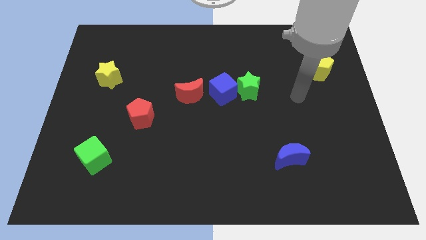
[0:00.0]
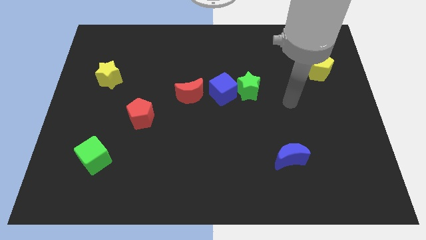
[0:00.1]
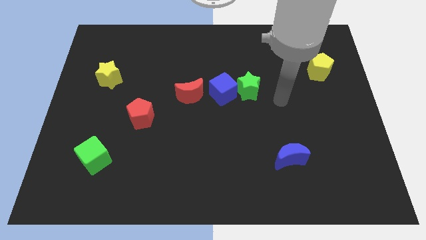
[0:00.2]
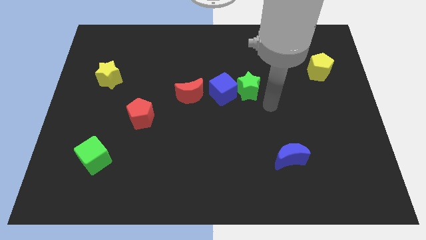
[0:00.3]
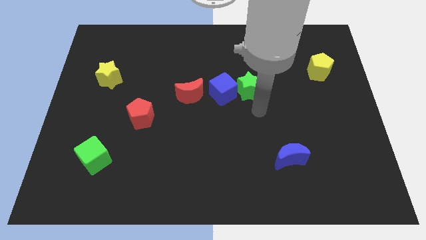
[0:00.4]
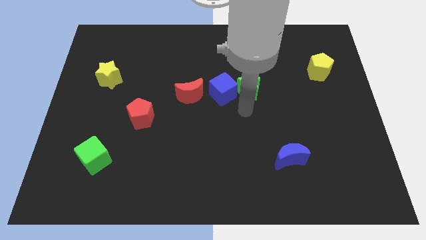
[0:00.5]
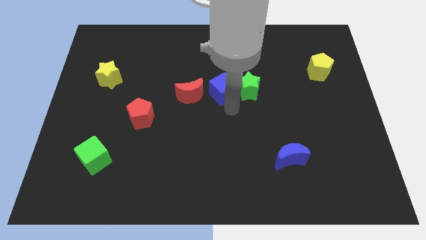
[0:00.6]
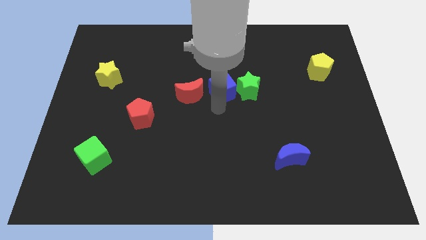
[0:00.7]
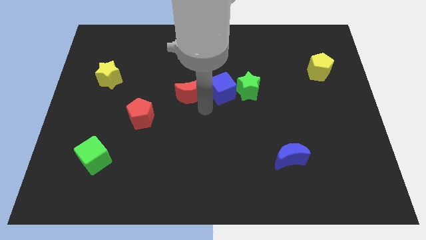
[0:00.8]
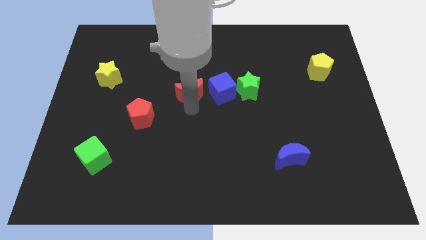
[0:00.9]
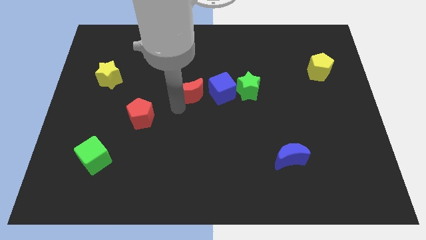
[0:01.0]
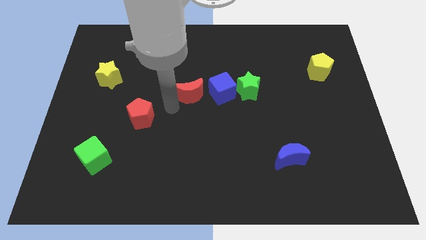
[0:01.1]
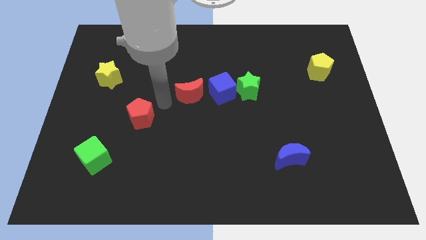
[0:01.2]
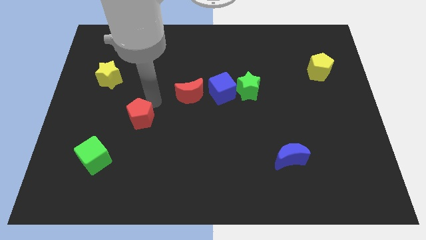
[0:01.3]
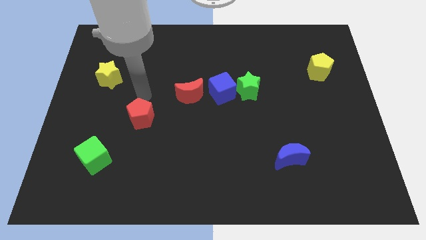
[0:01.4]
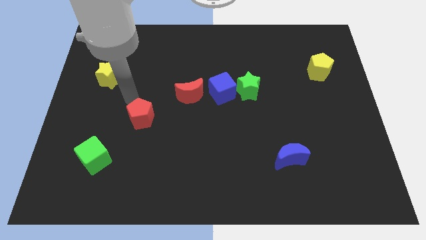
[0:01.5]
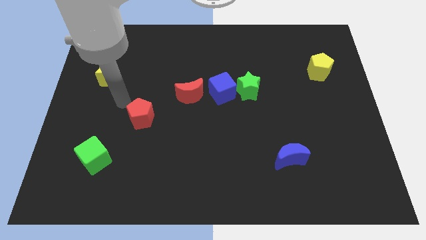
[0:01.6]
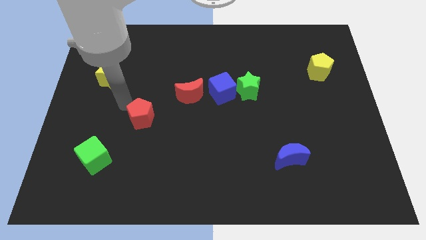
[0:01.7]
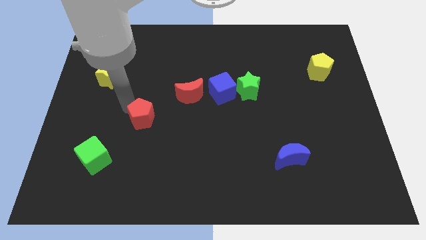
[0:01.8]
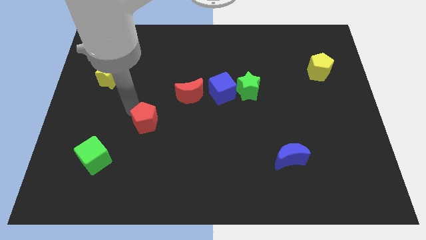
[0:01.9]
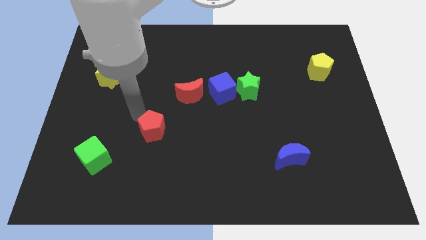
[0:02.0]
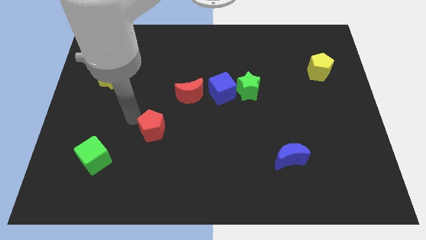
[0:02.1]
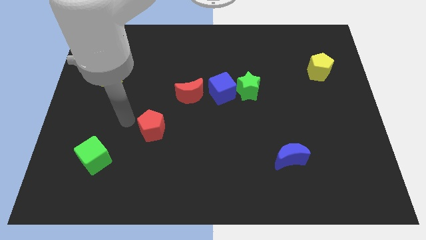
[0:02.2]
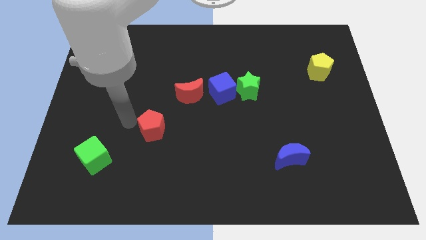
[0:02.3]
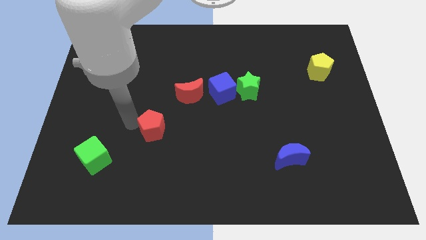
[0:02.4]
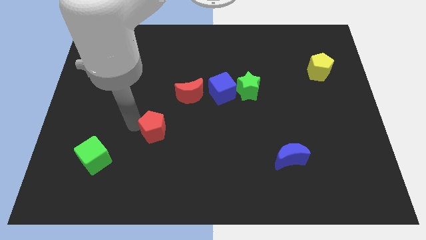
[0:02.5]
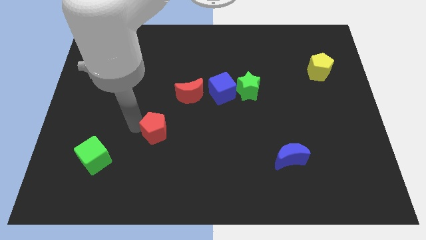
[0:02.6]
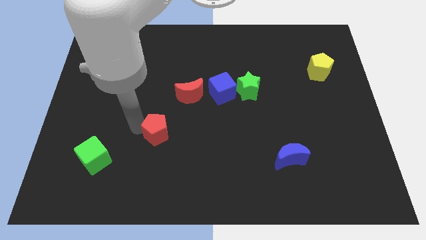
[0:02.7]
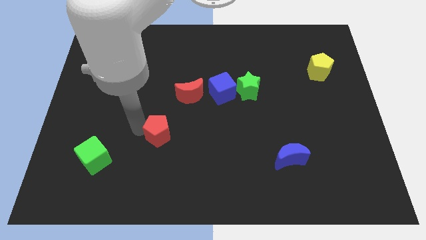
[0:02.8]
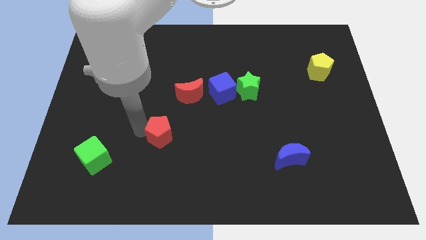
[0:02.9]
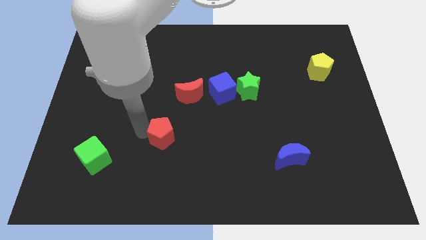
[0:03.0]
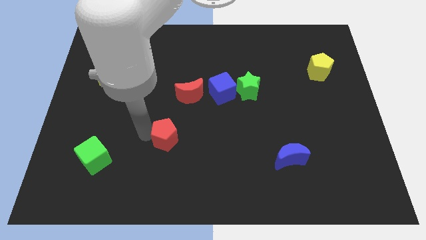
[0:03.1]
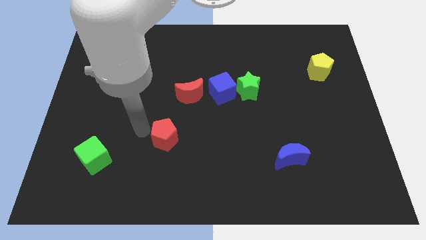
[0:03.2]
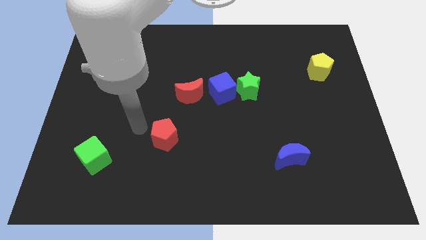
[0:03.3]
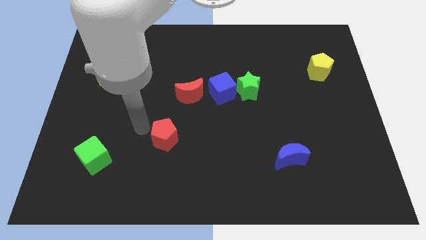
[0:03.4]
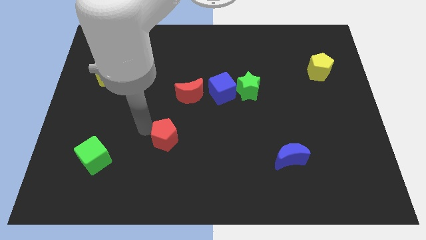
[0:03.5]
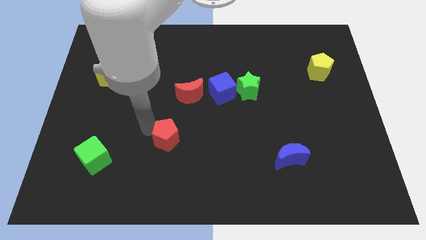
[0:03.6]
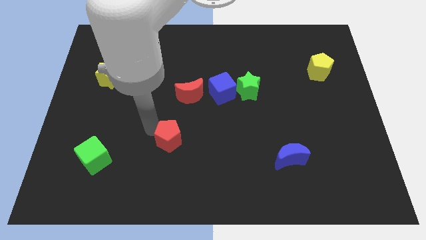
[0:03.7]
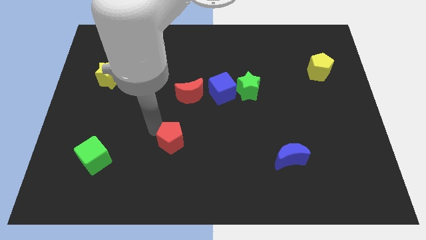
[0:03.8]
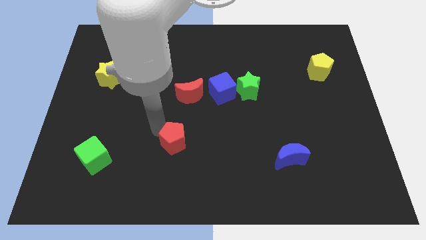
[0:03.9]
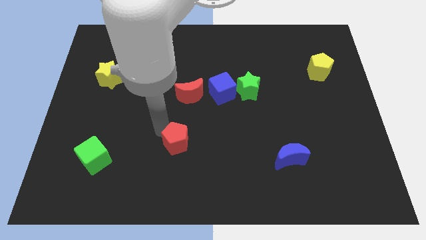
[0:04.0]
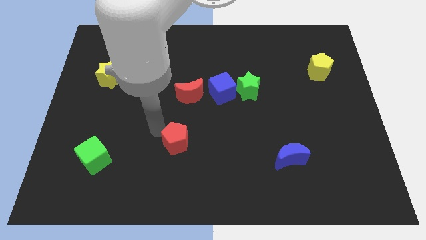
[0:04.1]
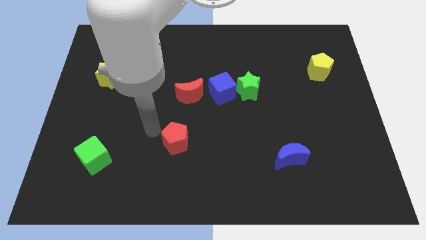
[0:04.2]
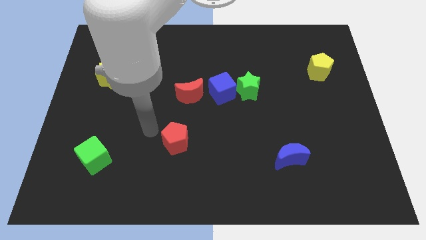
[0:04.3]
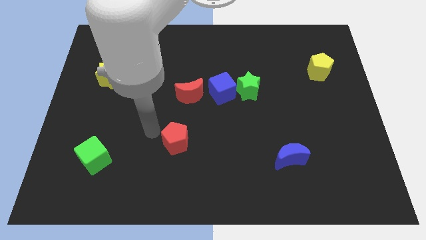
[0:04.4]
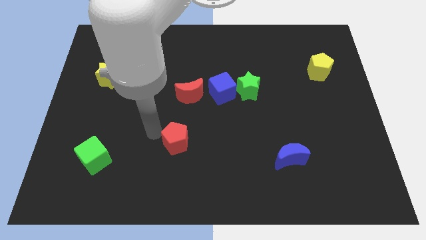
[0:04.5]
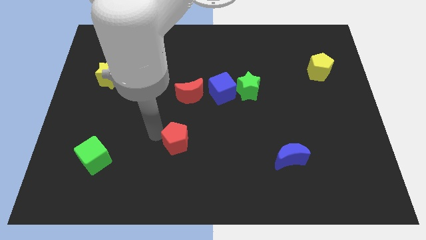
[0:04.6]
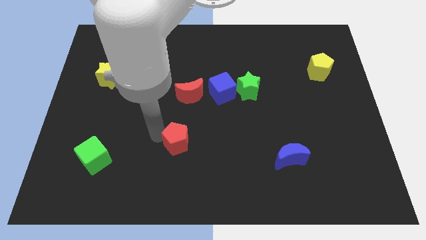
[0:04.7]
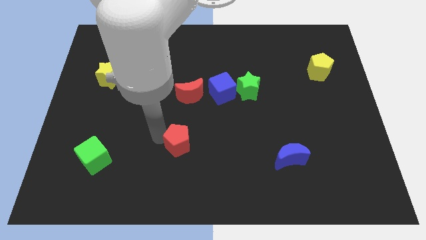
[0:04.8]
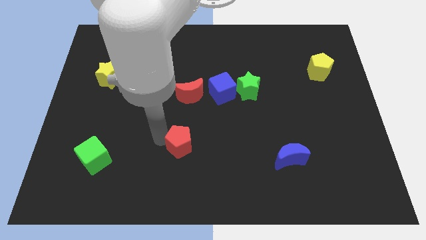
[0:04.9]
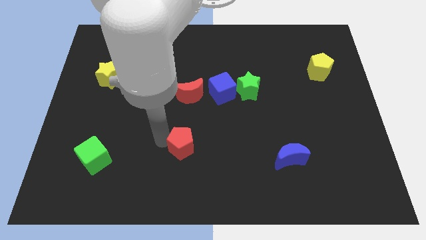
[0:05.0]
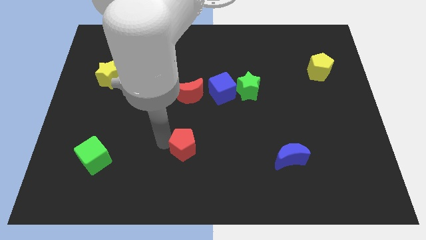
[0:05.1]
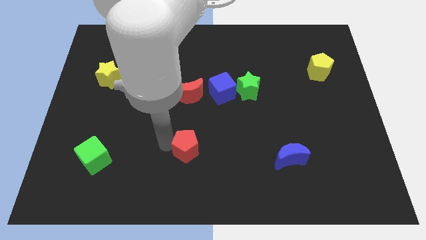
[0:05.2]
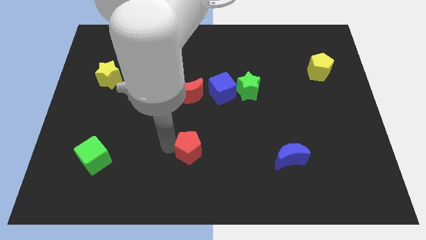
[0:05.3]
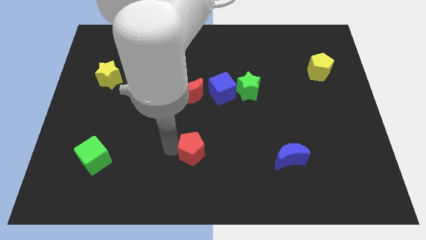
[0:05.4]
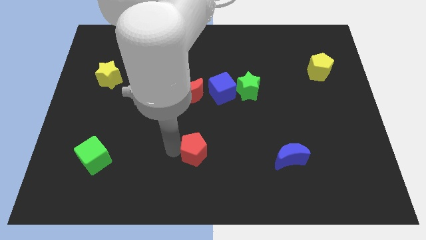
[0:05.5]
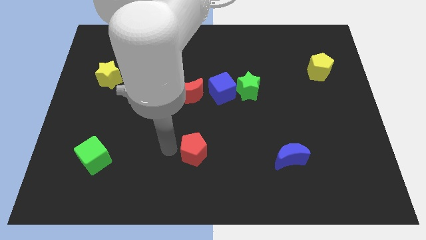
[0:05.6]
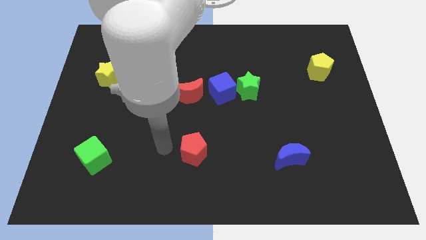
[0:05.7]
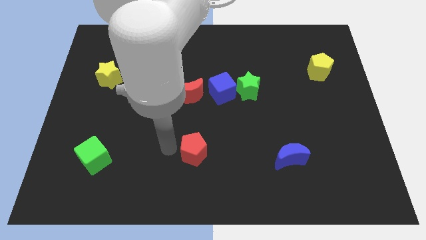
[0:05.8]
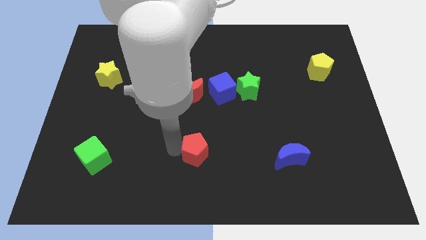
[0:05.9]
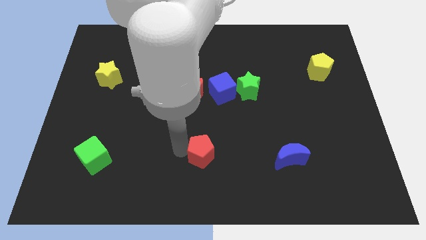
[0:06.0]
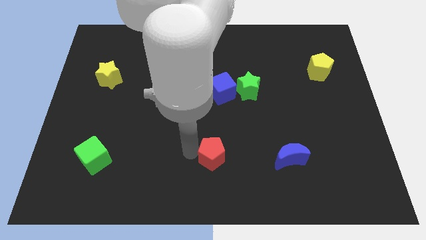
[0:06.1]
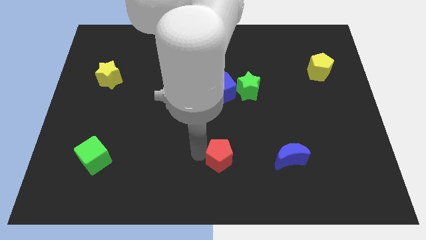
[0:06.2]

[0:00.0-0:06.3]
push the red pentagon to the left side of the blue moon

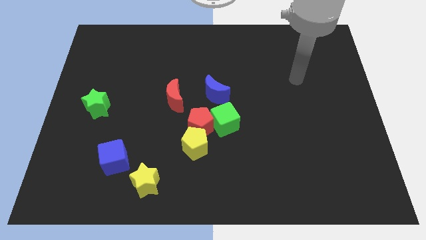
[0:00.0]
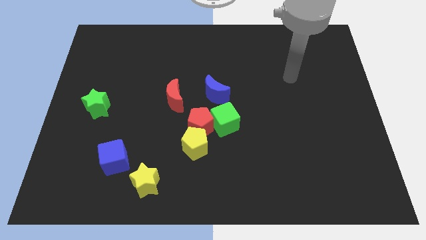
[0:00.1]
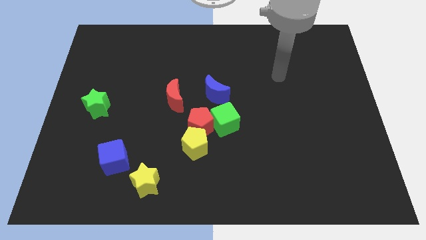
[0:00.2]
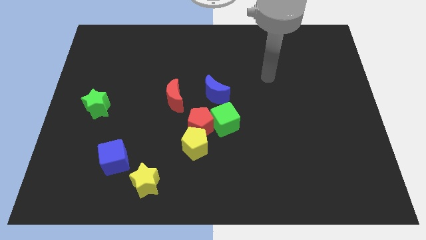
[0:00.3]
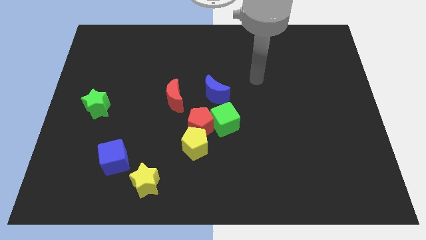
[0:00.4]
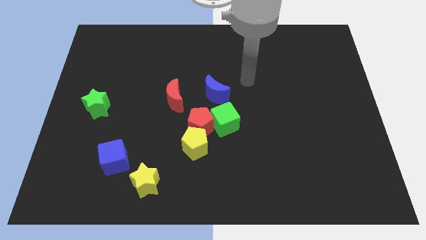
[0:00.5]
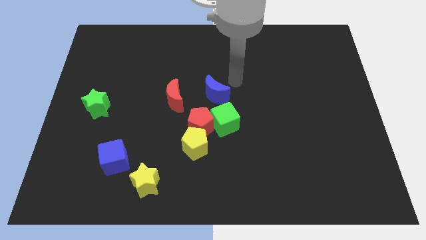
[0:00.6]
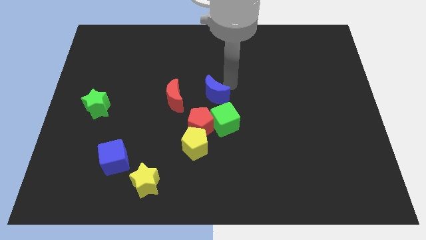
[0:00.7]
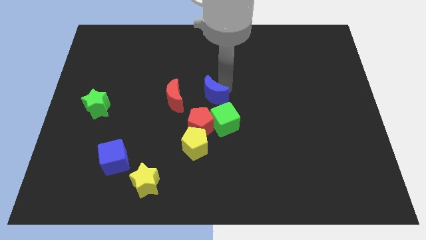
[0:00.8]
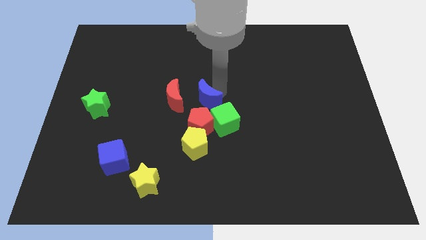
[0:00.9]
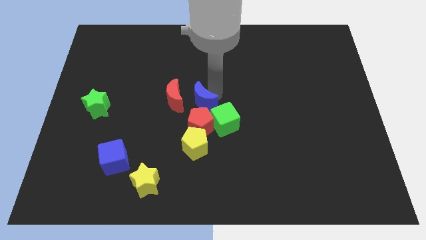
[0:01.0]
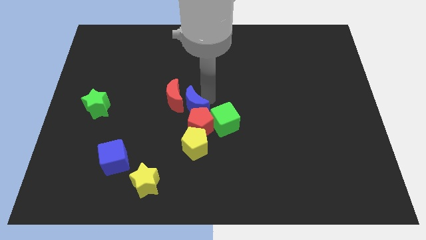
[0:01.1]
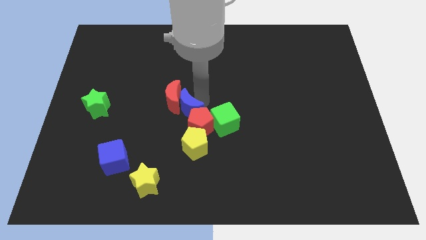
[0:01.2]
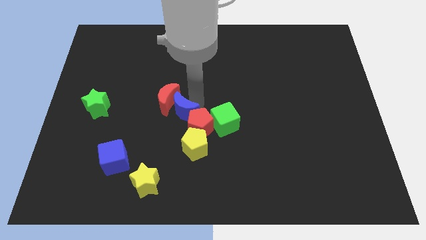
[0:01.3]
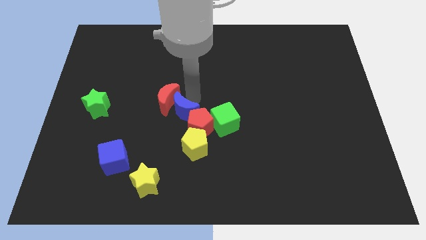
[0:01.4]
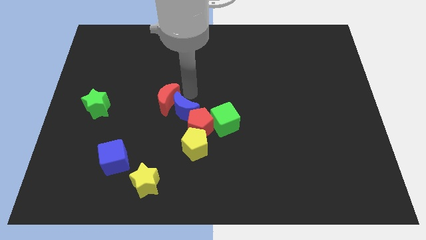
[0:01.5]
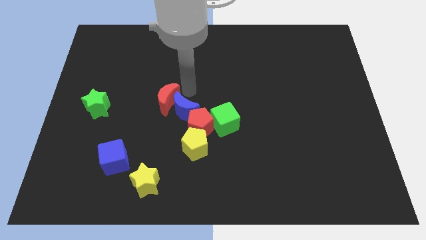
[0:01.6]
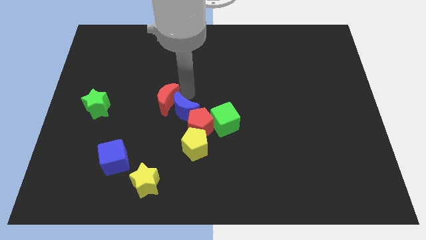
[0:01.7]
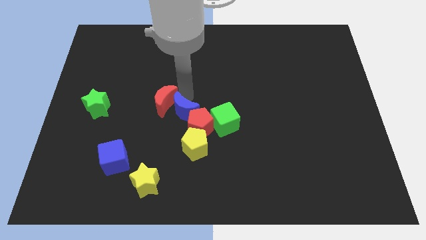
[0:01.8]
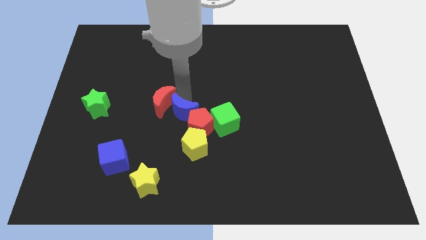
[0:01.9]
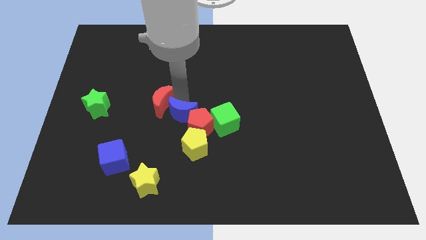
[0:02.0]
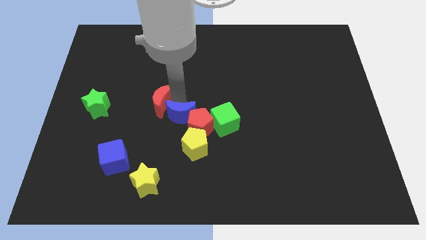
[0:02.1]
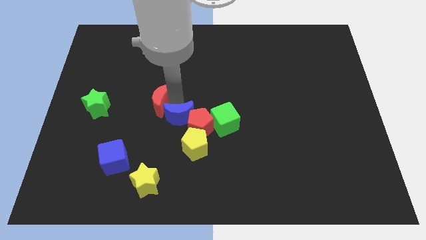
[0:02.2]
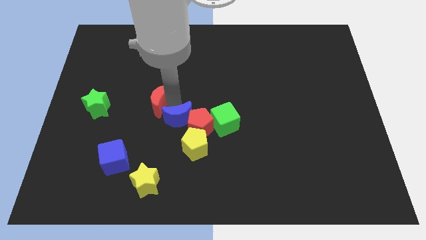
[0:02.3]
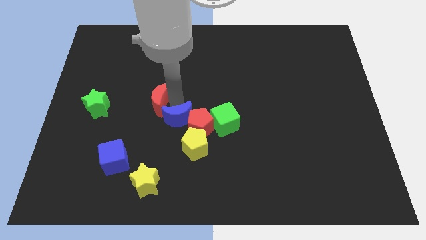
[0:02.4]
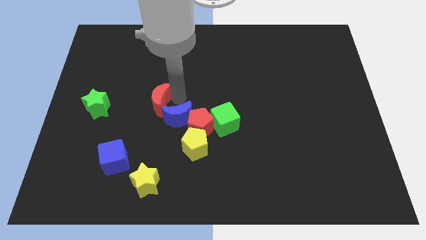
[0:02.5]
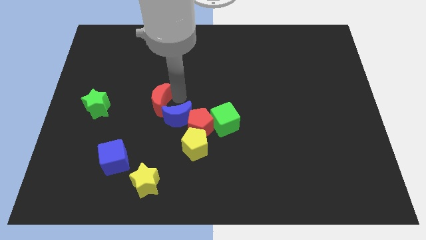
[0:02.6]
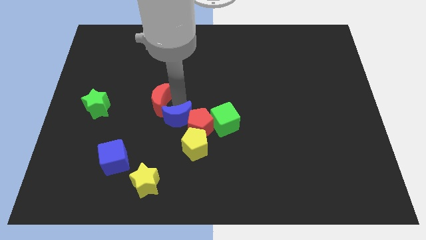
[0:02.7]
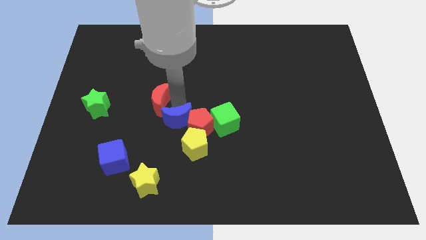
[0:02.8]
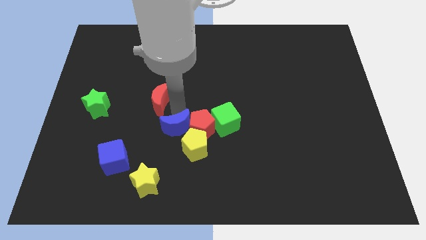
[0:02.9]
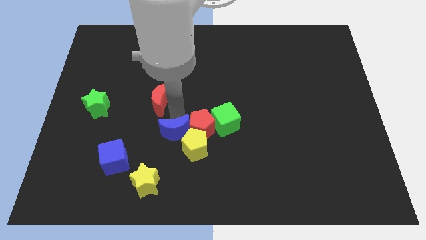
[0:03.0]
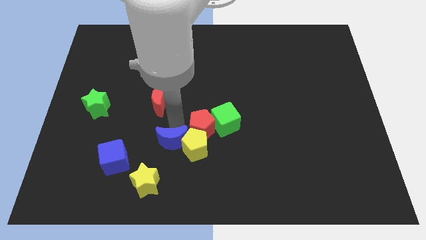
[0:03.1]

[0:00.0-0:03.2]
push the blue moon diagonally down and to the left of the yellow pentagon
